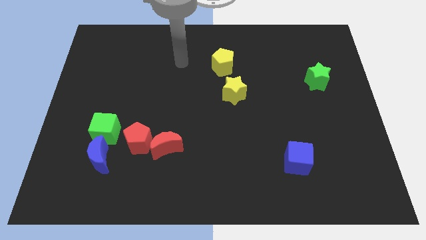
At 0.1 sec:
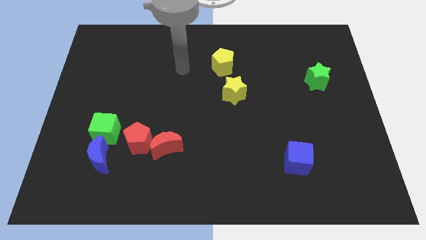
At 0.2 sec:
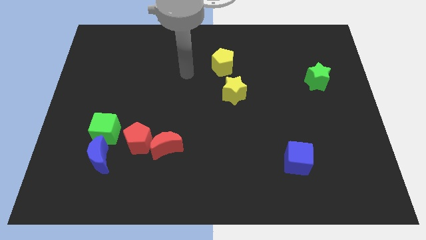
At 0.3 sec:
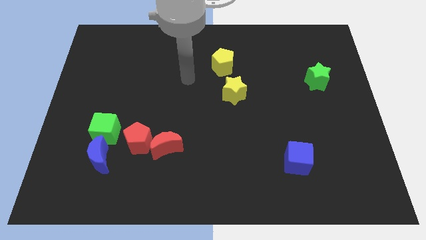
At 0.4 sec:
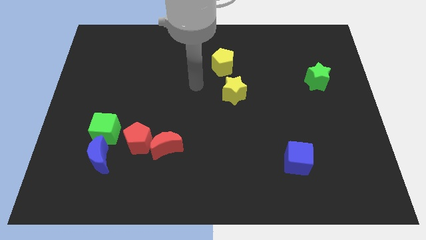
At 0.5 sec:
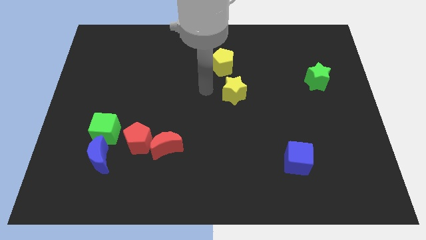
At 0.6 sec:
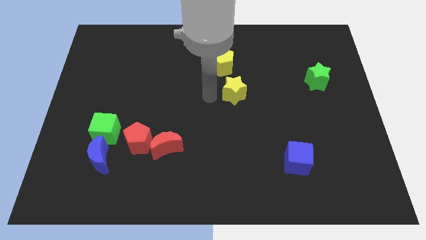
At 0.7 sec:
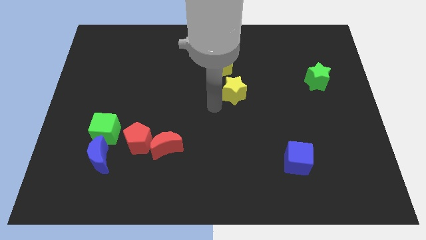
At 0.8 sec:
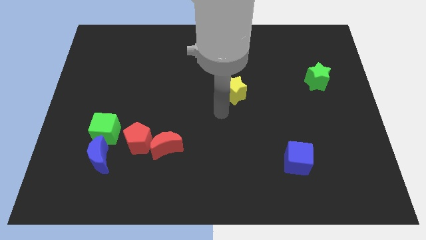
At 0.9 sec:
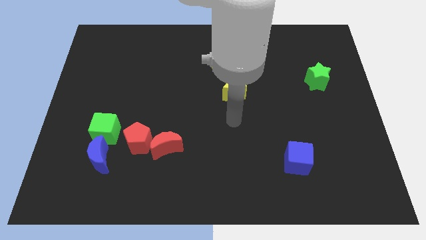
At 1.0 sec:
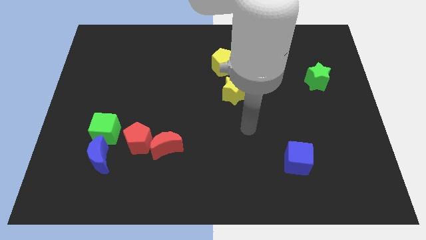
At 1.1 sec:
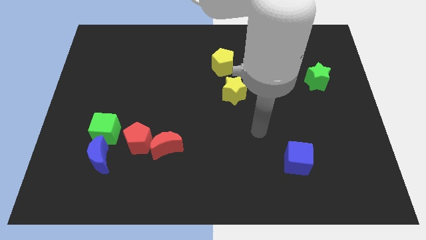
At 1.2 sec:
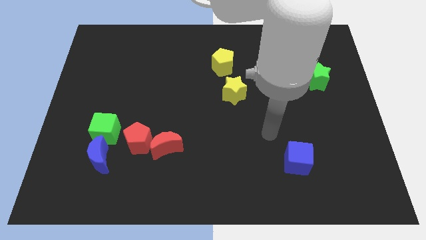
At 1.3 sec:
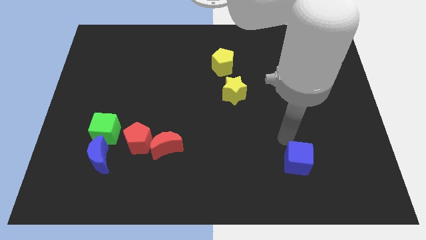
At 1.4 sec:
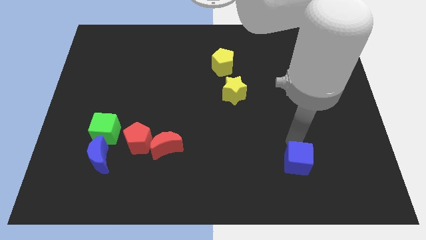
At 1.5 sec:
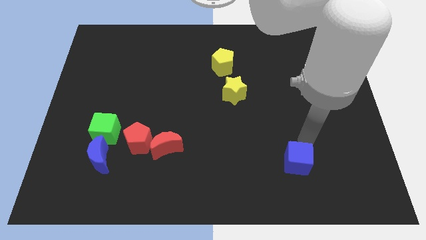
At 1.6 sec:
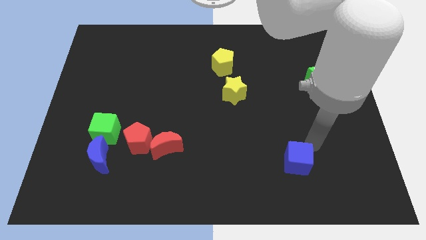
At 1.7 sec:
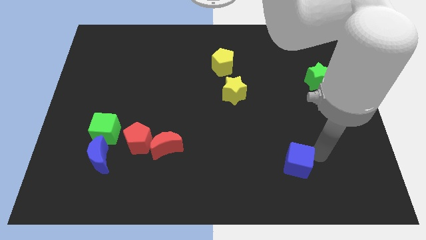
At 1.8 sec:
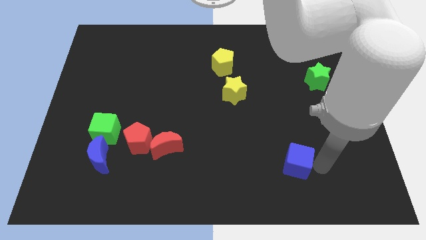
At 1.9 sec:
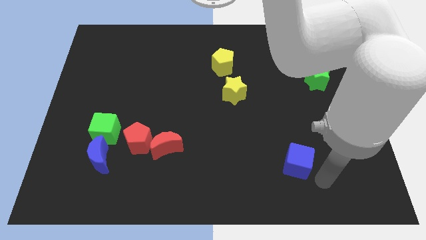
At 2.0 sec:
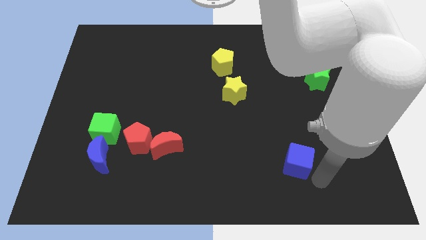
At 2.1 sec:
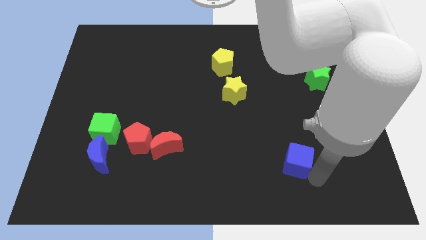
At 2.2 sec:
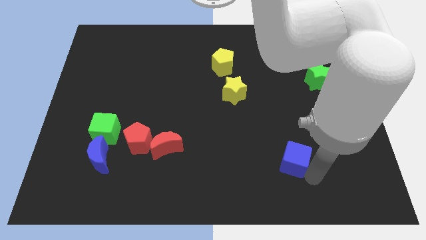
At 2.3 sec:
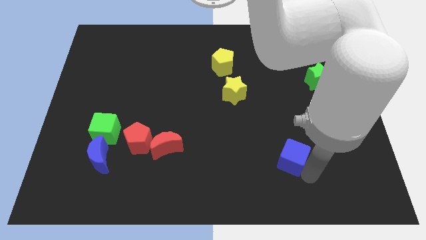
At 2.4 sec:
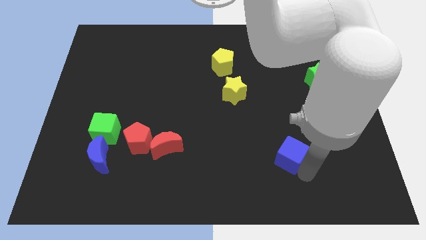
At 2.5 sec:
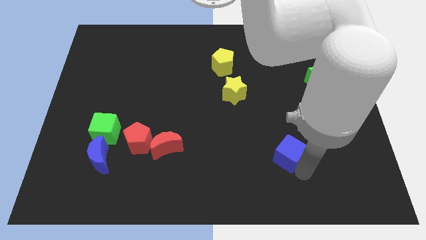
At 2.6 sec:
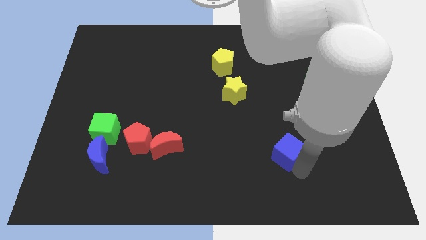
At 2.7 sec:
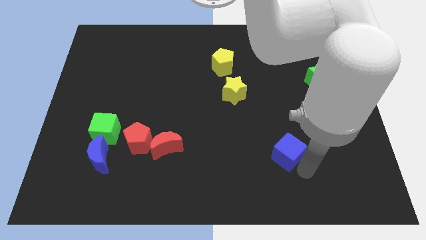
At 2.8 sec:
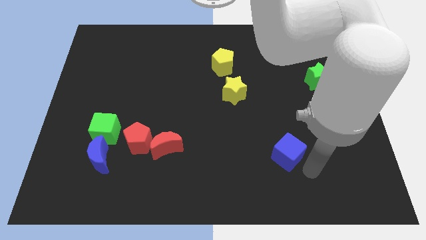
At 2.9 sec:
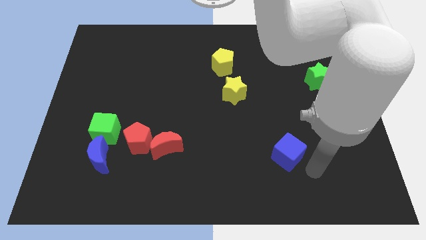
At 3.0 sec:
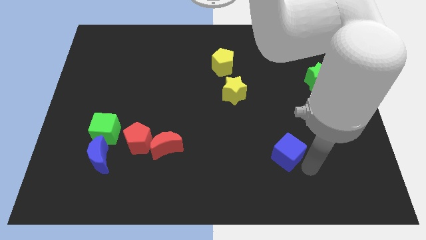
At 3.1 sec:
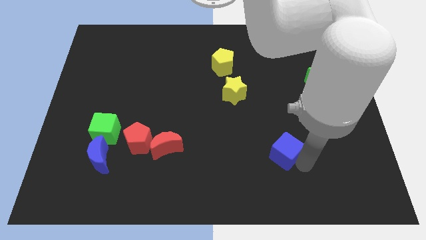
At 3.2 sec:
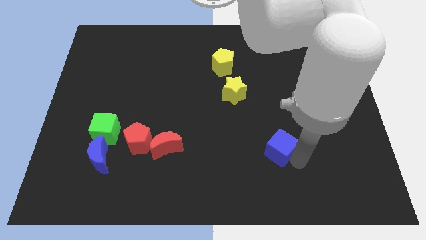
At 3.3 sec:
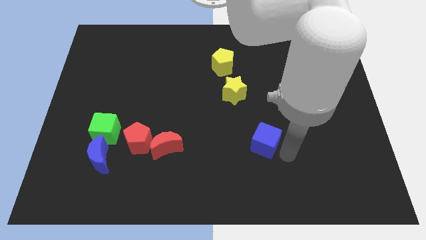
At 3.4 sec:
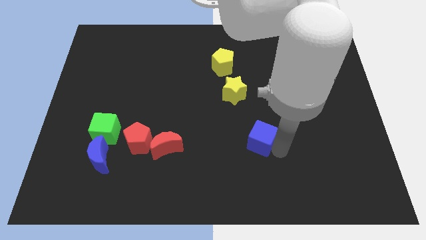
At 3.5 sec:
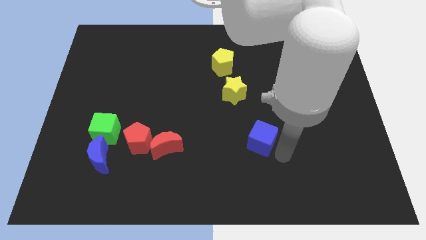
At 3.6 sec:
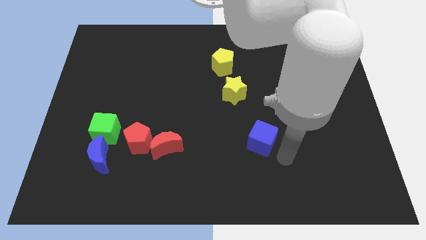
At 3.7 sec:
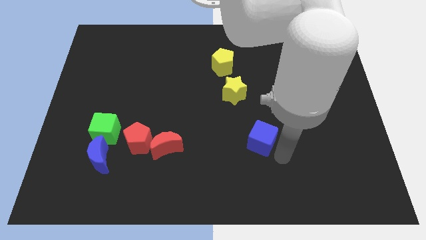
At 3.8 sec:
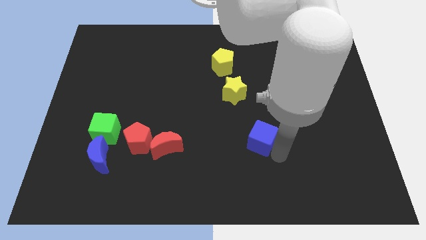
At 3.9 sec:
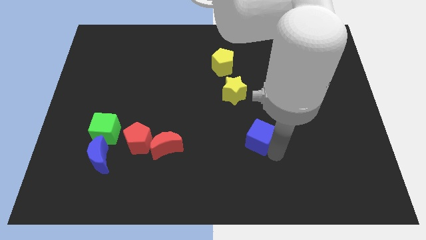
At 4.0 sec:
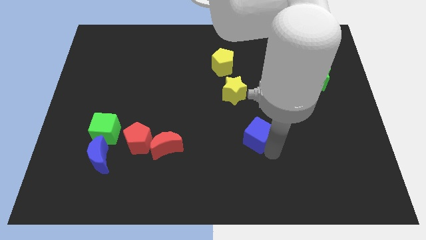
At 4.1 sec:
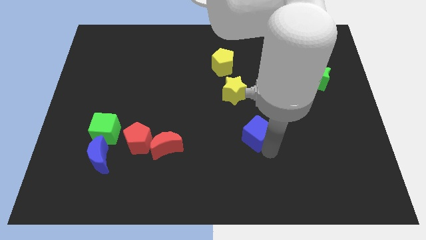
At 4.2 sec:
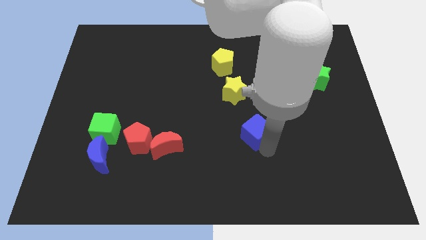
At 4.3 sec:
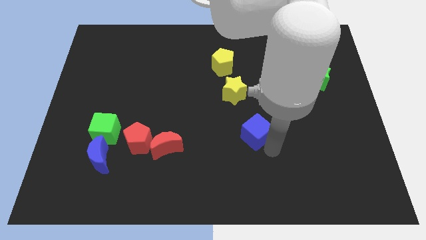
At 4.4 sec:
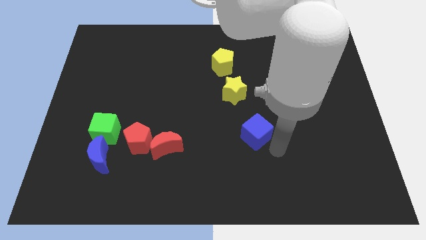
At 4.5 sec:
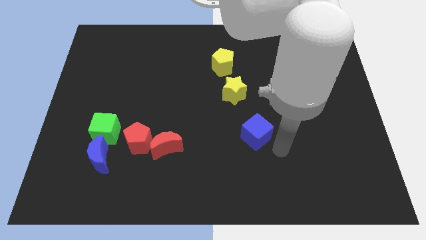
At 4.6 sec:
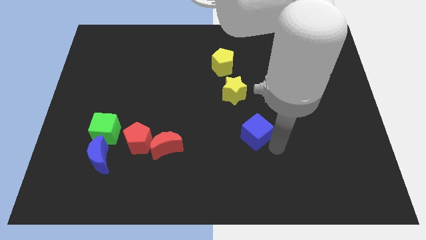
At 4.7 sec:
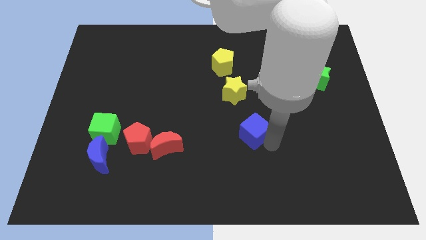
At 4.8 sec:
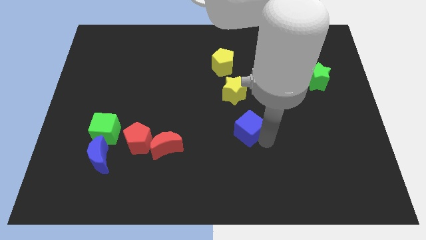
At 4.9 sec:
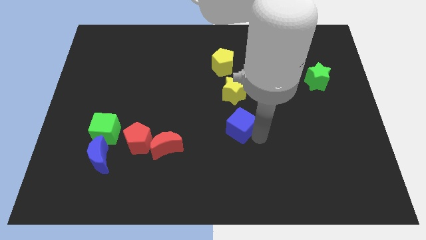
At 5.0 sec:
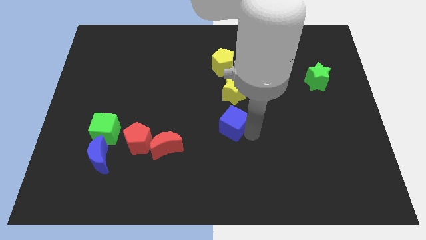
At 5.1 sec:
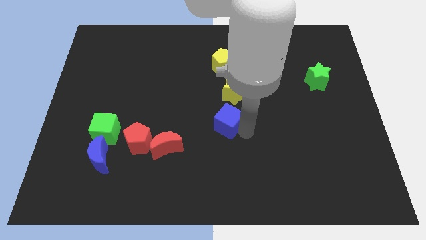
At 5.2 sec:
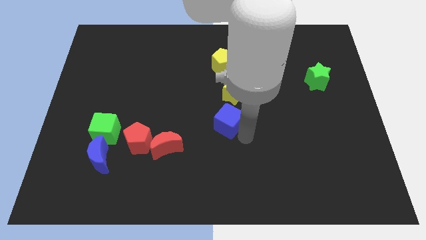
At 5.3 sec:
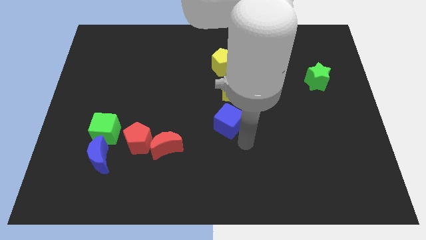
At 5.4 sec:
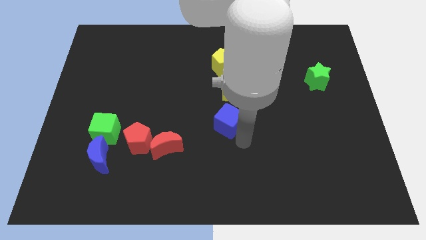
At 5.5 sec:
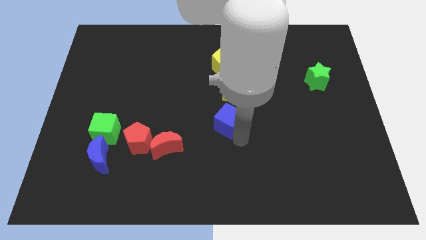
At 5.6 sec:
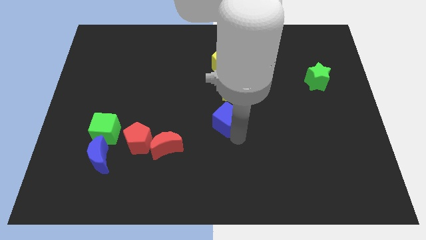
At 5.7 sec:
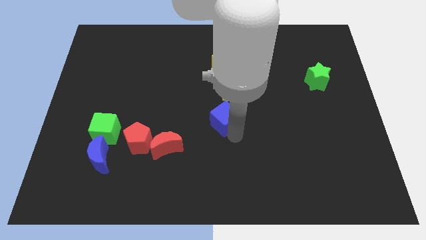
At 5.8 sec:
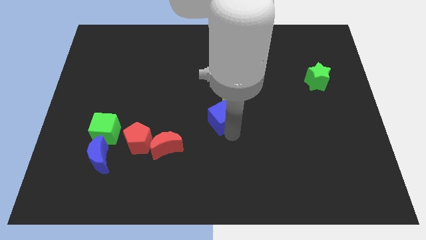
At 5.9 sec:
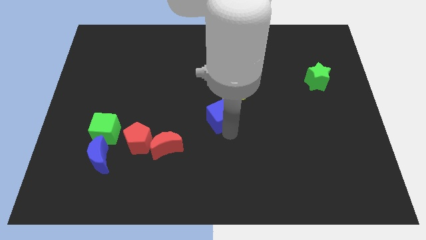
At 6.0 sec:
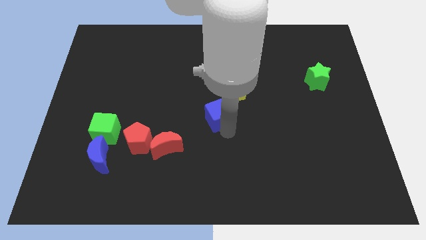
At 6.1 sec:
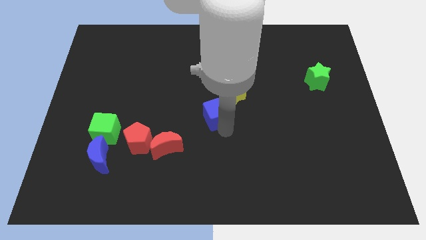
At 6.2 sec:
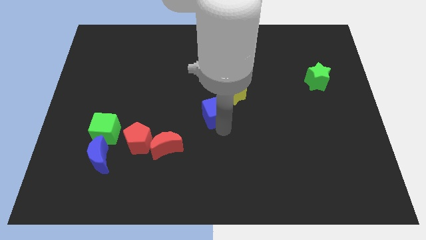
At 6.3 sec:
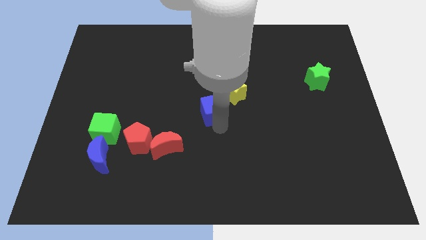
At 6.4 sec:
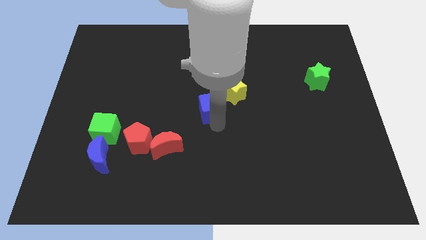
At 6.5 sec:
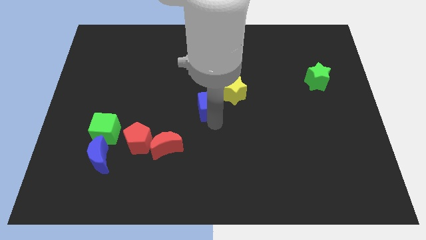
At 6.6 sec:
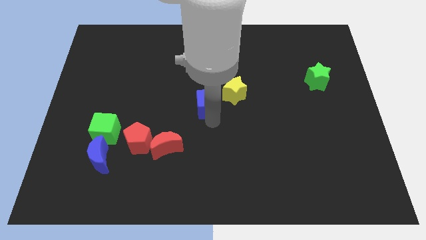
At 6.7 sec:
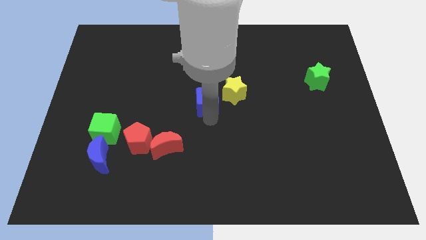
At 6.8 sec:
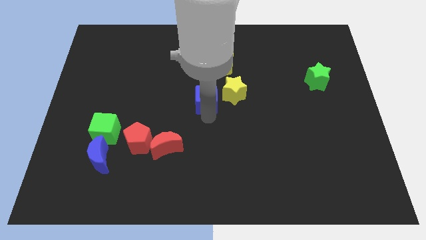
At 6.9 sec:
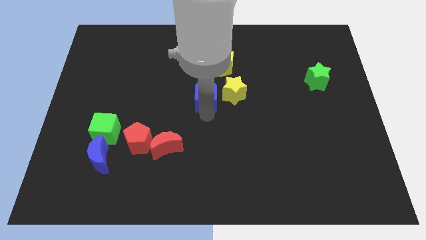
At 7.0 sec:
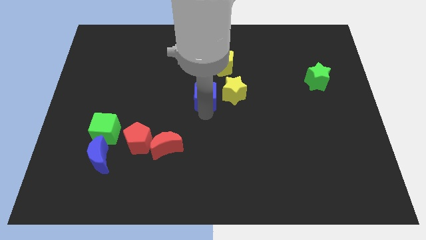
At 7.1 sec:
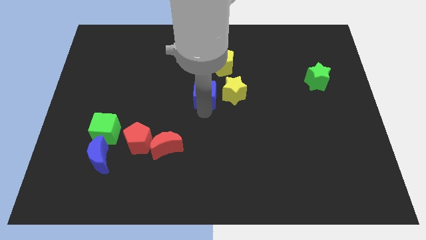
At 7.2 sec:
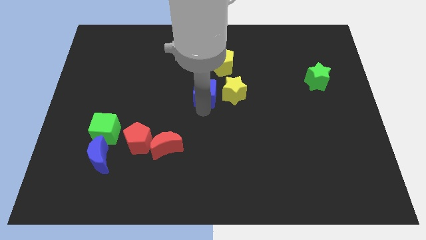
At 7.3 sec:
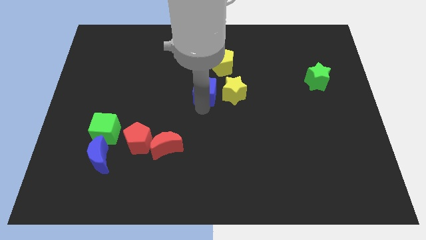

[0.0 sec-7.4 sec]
move the blue cube diagonally up and to the left of the yellow star
